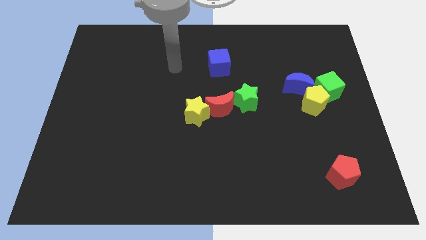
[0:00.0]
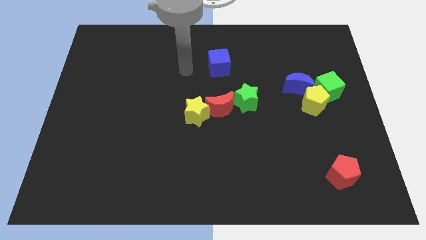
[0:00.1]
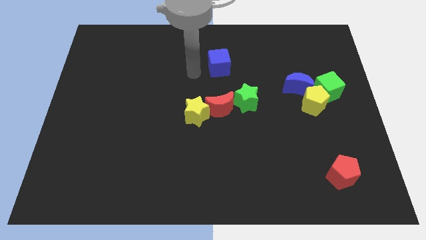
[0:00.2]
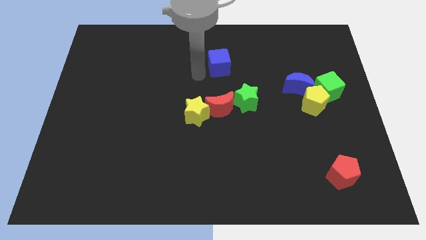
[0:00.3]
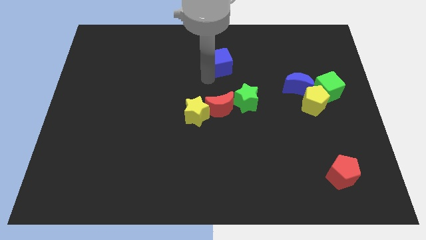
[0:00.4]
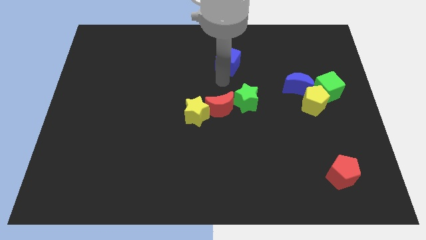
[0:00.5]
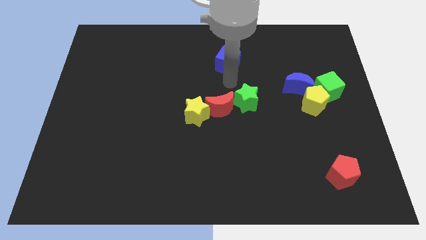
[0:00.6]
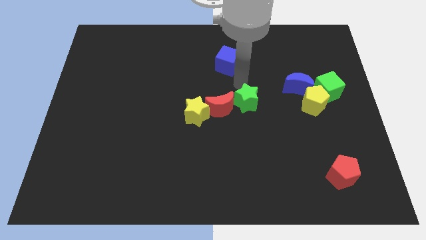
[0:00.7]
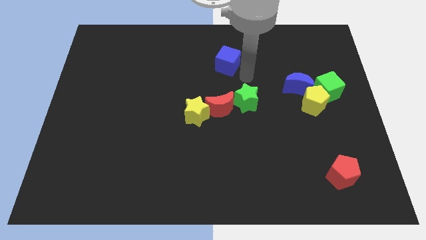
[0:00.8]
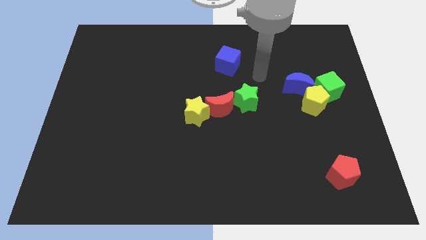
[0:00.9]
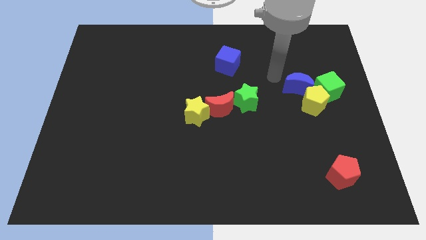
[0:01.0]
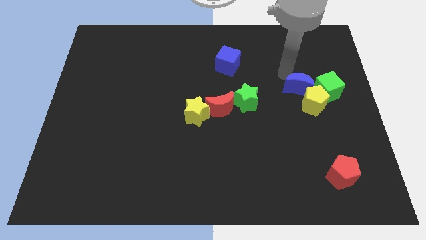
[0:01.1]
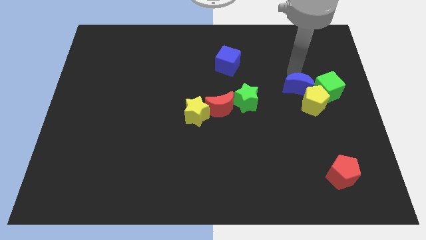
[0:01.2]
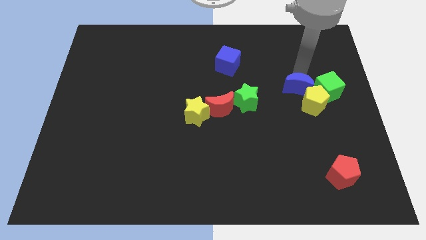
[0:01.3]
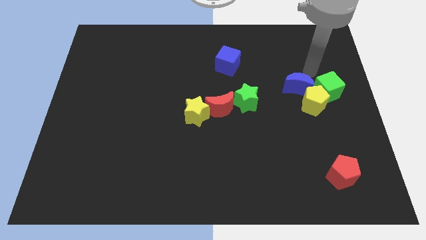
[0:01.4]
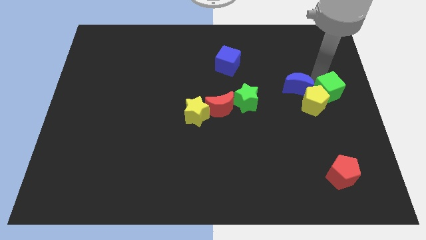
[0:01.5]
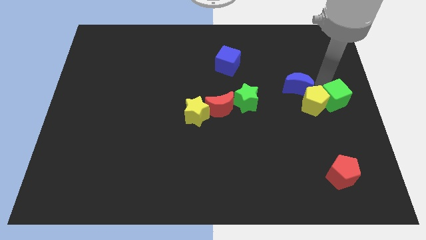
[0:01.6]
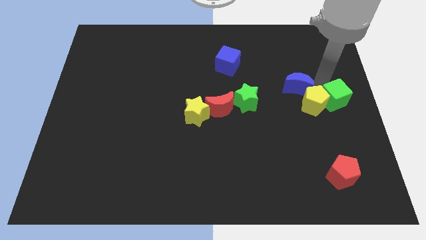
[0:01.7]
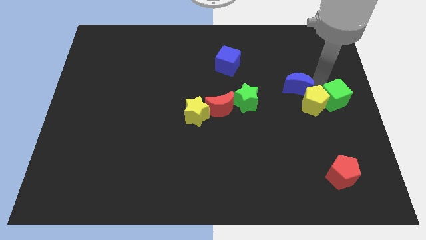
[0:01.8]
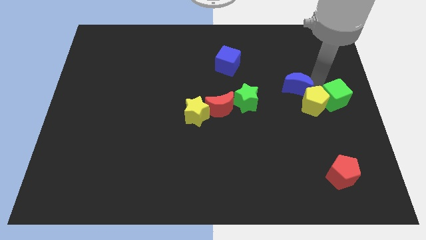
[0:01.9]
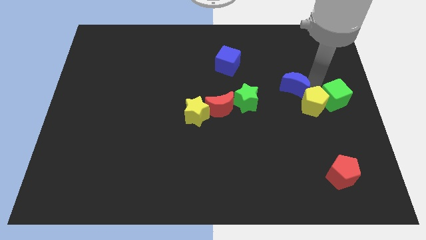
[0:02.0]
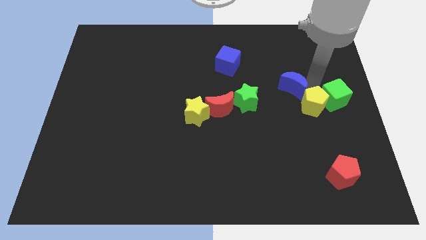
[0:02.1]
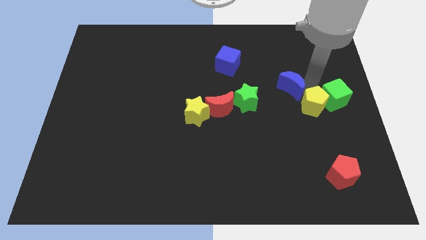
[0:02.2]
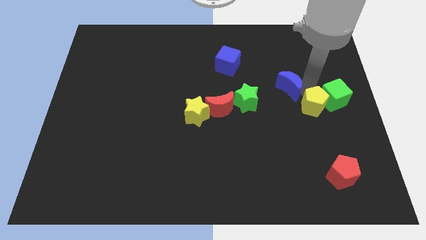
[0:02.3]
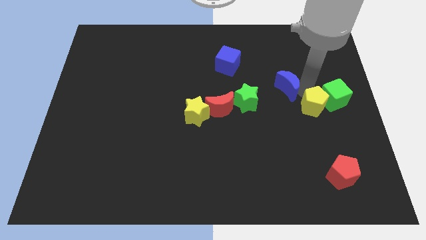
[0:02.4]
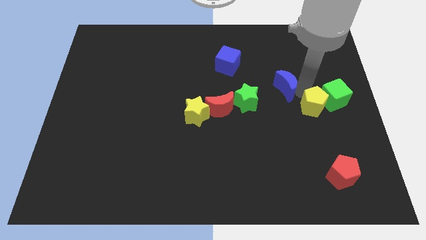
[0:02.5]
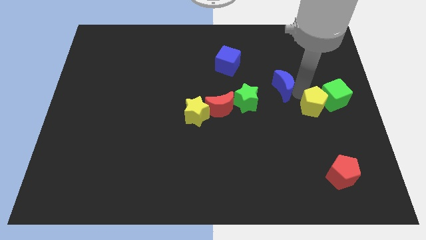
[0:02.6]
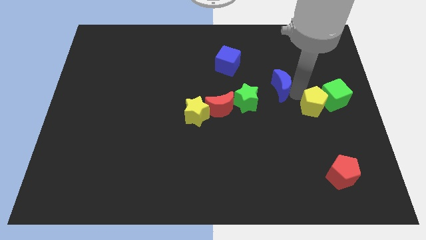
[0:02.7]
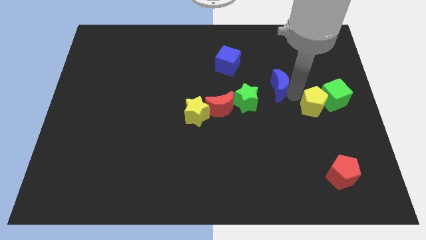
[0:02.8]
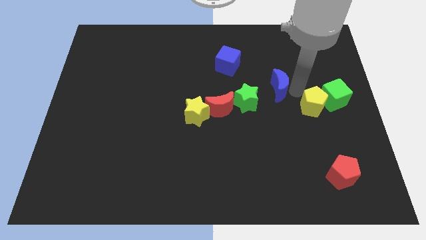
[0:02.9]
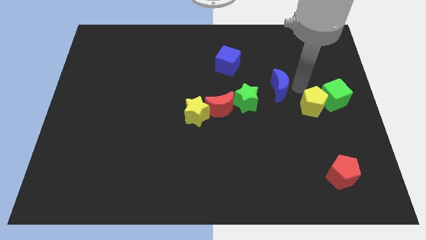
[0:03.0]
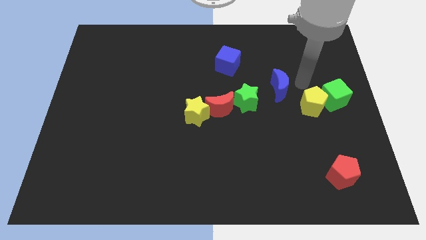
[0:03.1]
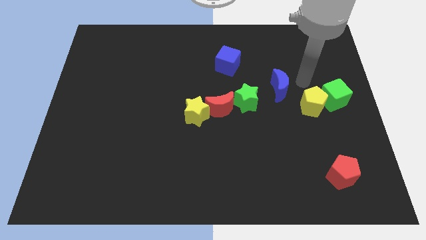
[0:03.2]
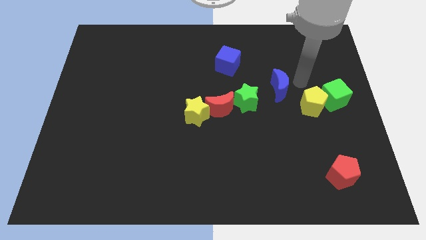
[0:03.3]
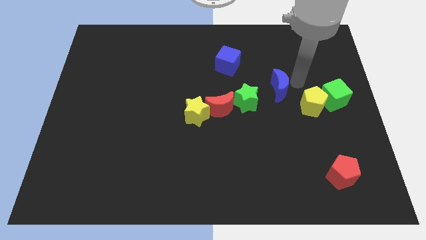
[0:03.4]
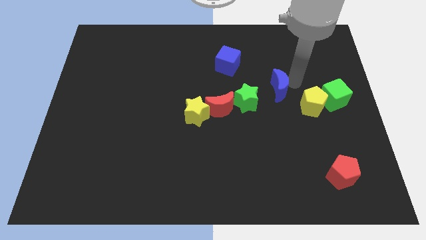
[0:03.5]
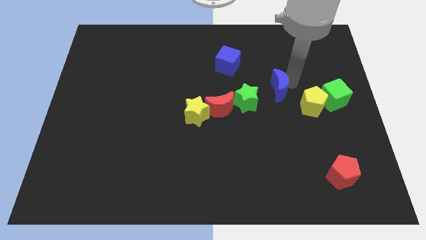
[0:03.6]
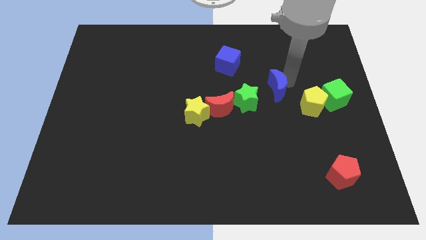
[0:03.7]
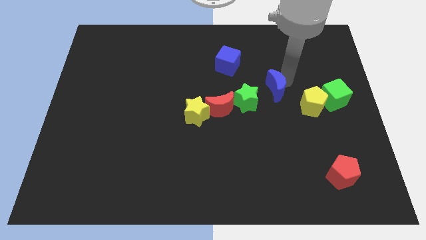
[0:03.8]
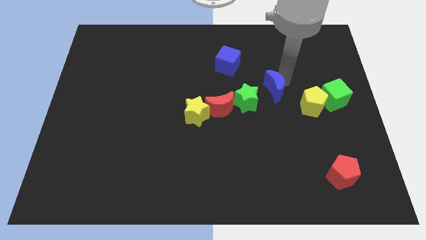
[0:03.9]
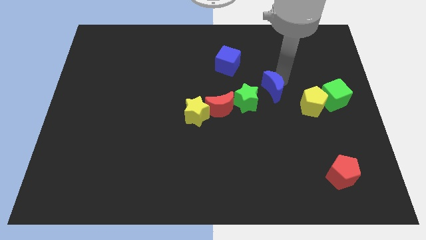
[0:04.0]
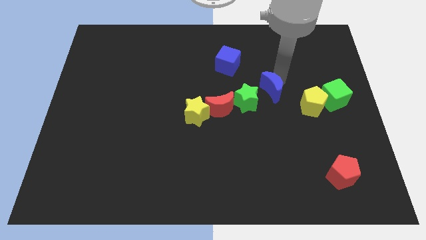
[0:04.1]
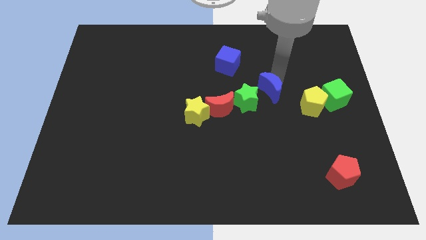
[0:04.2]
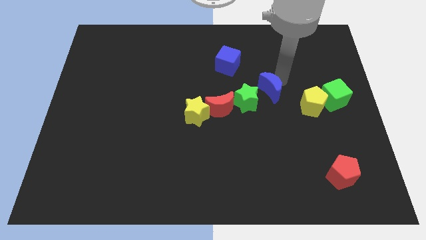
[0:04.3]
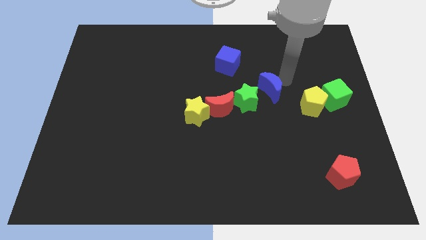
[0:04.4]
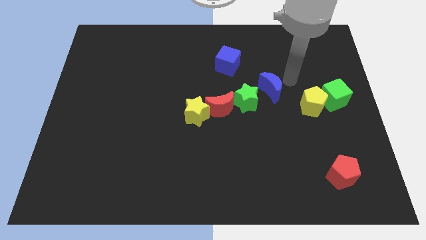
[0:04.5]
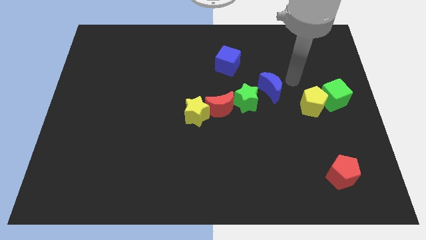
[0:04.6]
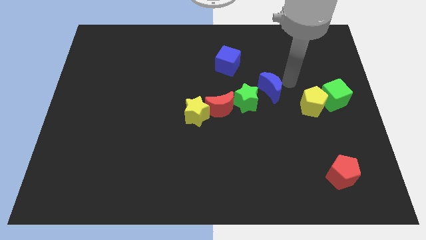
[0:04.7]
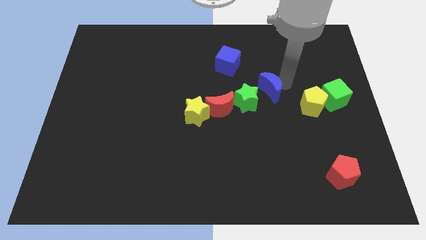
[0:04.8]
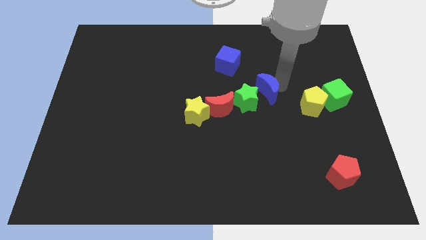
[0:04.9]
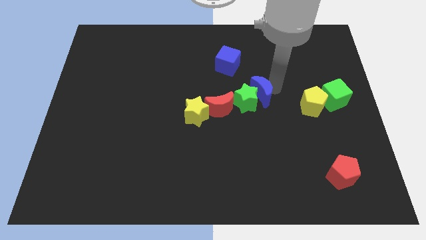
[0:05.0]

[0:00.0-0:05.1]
move the blue moon to the green star

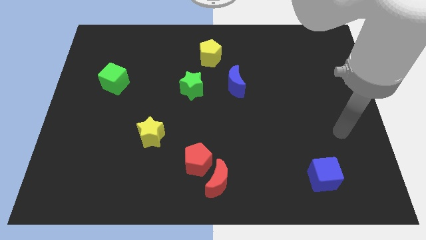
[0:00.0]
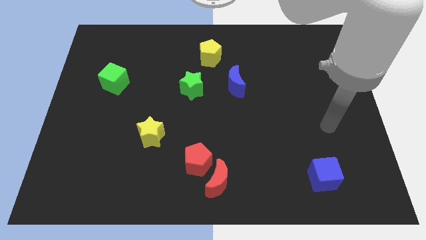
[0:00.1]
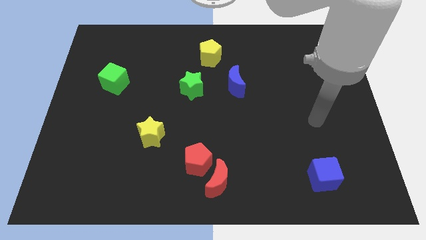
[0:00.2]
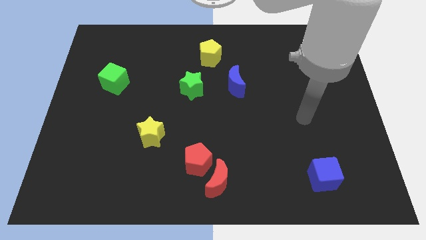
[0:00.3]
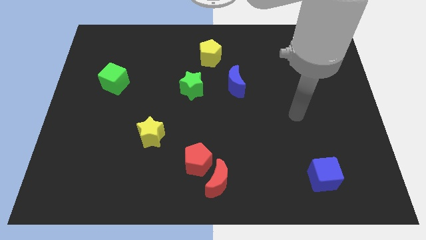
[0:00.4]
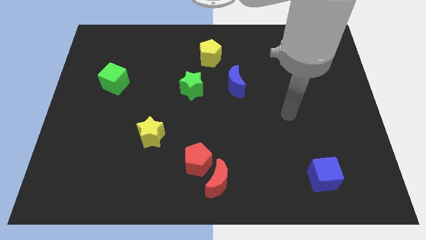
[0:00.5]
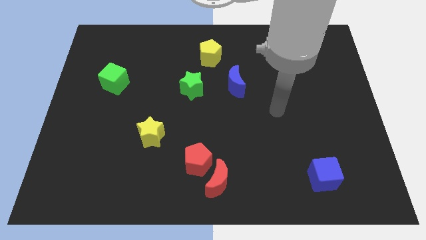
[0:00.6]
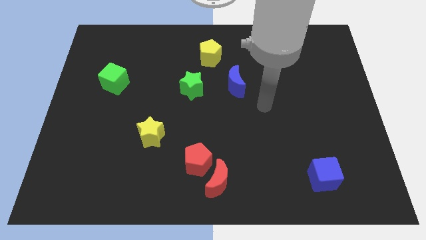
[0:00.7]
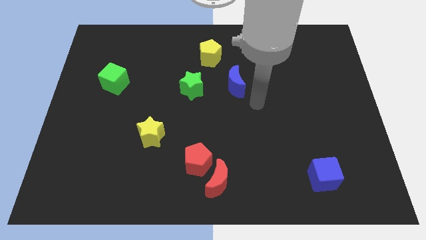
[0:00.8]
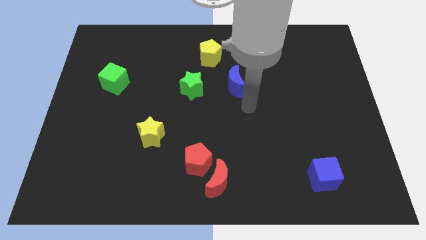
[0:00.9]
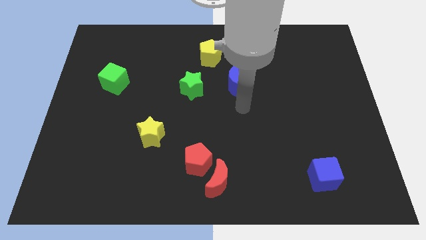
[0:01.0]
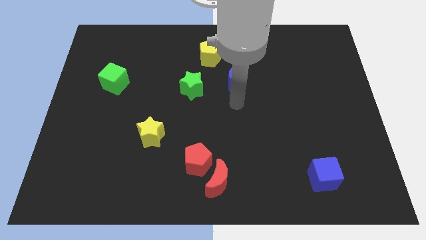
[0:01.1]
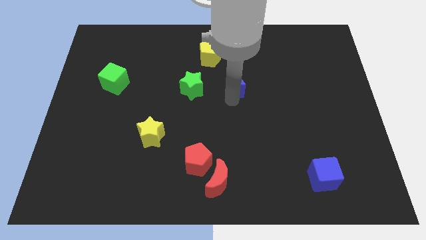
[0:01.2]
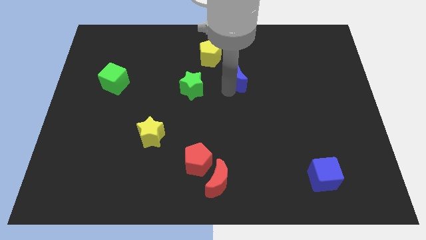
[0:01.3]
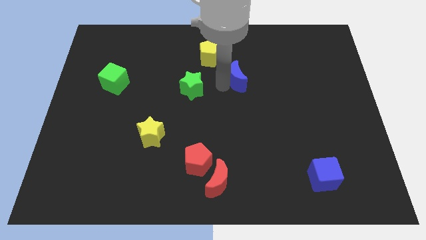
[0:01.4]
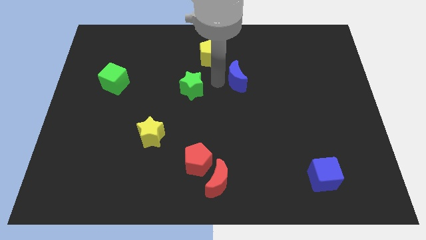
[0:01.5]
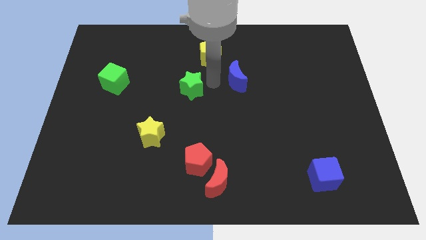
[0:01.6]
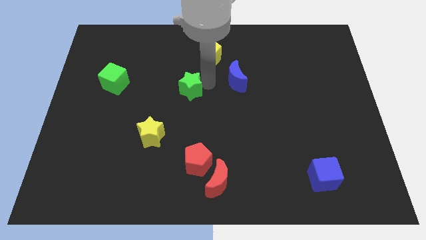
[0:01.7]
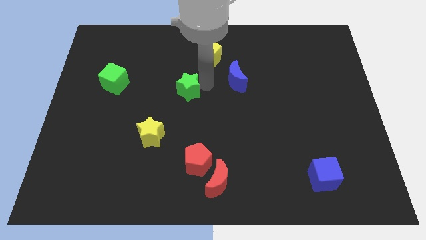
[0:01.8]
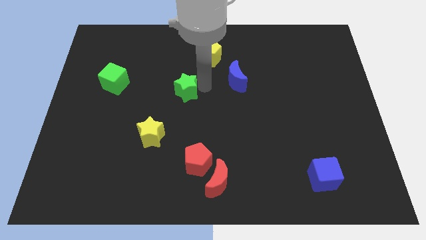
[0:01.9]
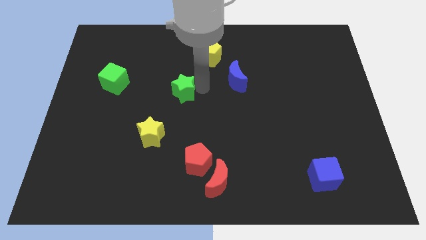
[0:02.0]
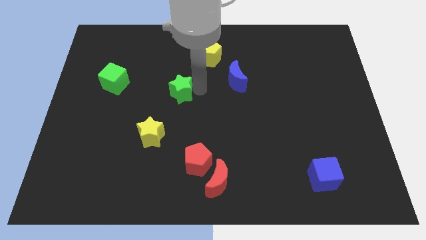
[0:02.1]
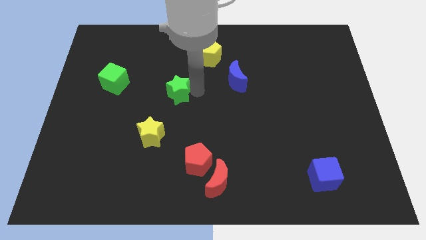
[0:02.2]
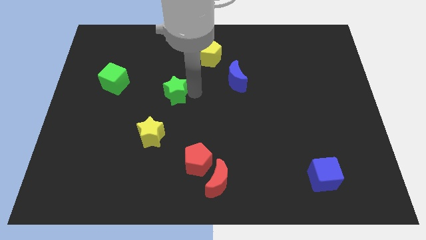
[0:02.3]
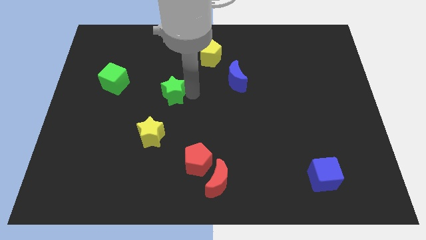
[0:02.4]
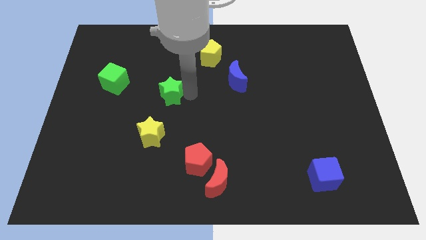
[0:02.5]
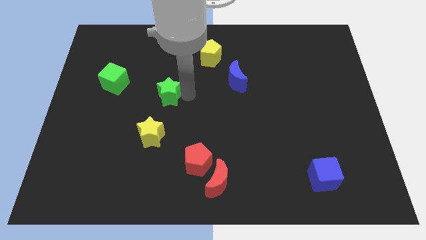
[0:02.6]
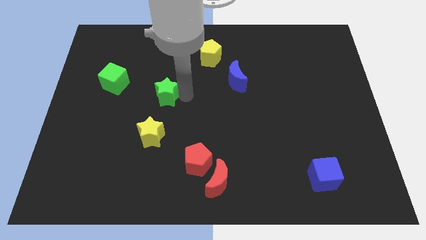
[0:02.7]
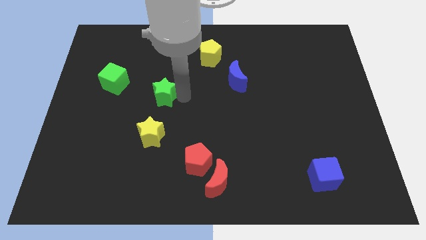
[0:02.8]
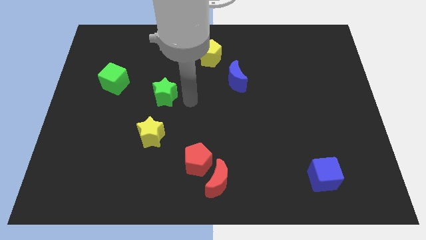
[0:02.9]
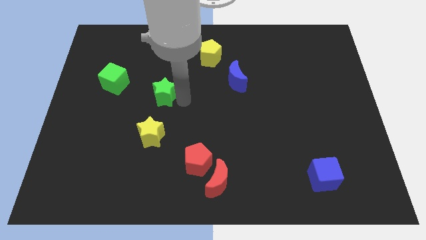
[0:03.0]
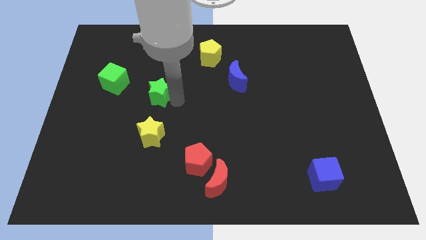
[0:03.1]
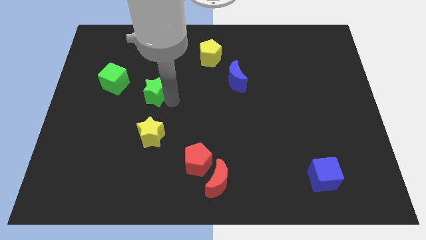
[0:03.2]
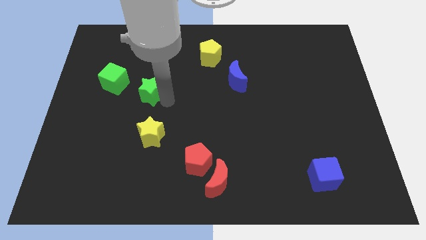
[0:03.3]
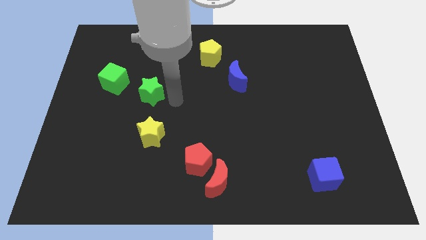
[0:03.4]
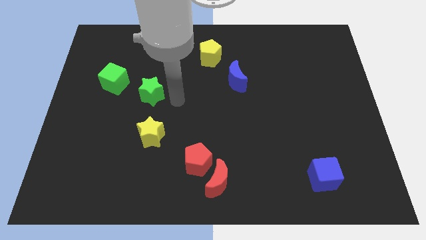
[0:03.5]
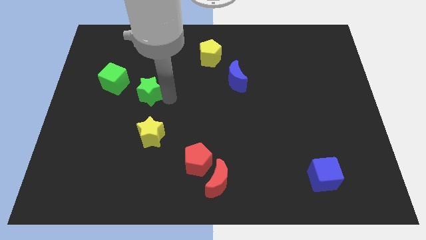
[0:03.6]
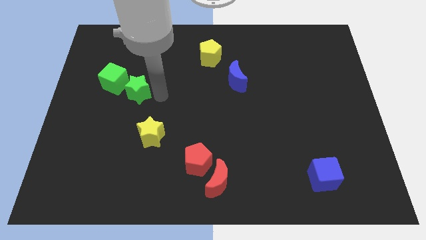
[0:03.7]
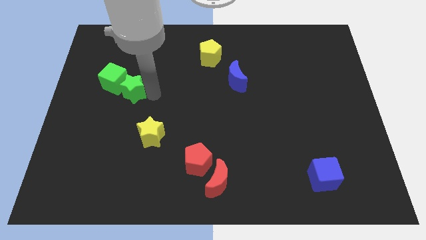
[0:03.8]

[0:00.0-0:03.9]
push the green star close to the green cube
